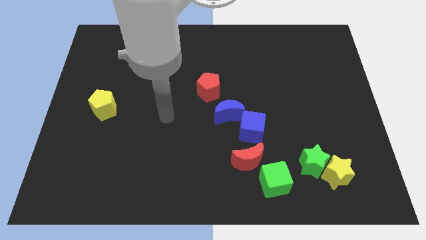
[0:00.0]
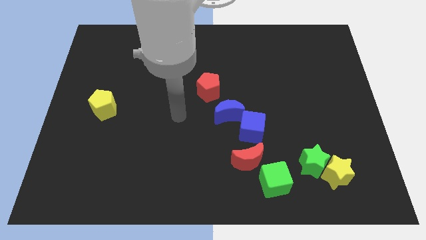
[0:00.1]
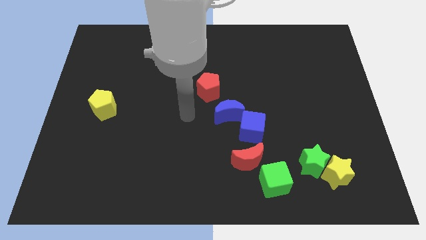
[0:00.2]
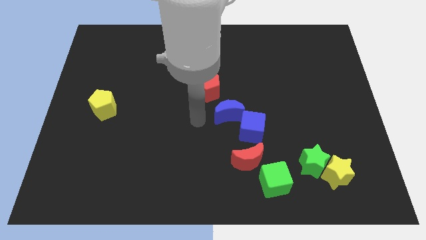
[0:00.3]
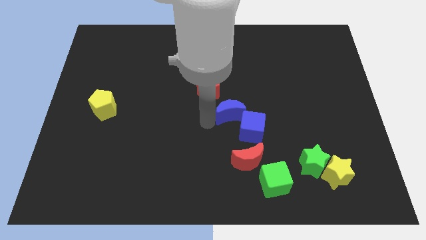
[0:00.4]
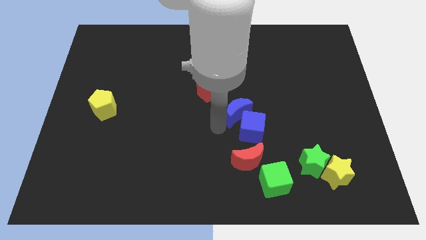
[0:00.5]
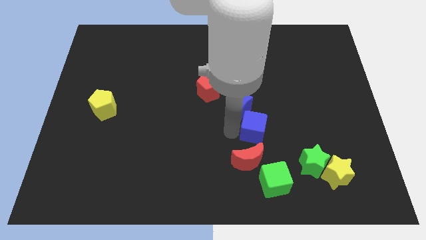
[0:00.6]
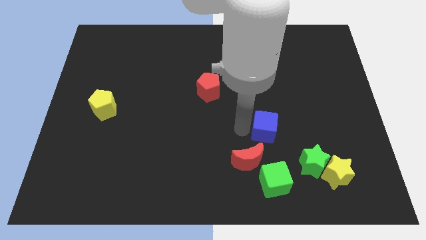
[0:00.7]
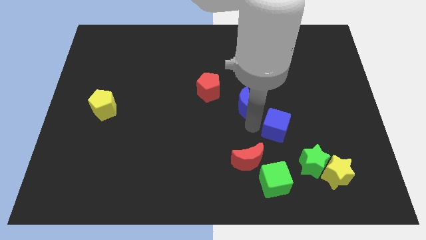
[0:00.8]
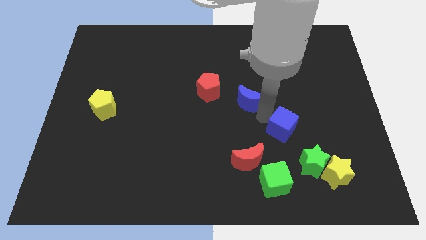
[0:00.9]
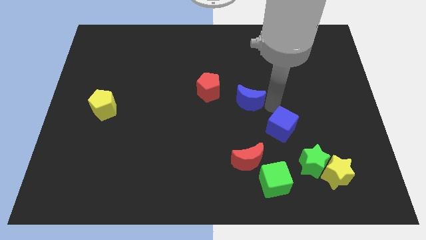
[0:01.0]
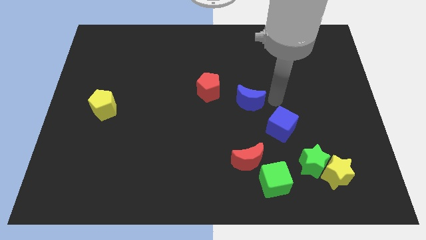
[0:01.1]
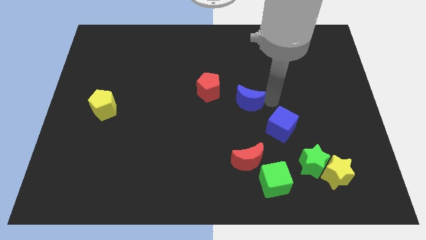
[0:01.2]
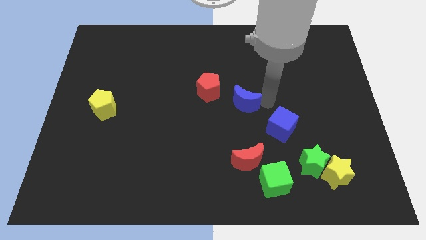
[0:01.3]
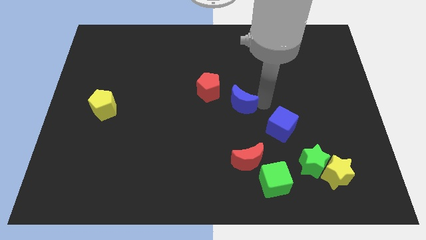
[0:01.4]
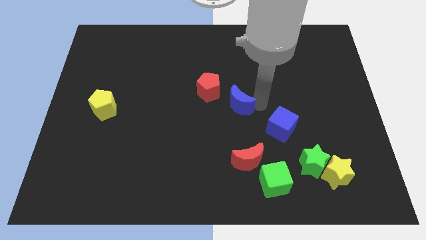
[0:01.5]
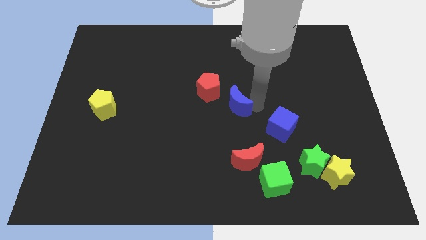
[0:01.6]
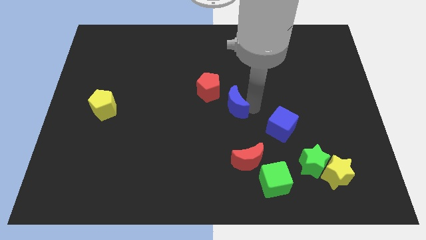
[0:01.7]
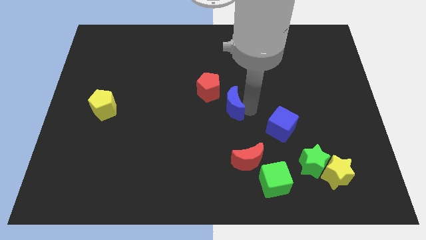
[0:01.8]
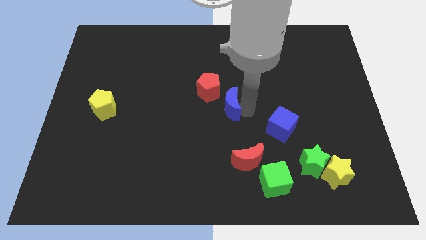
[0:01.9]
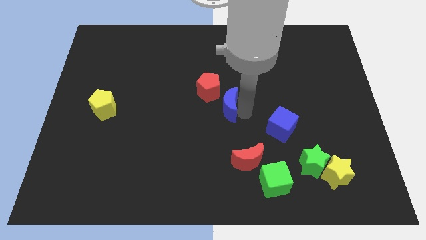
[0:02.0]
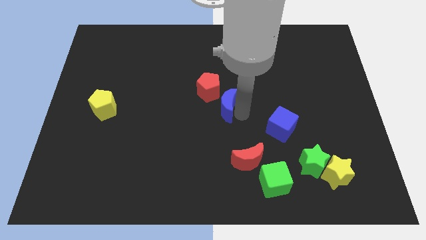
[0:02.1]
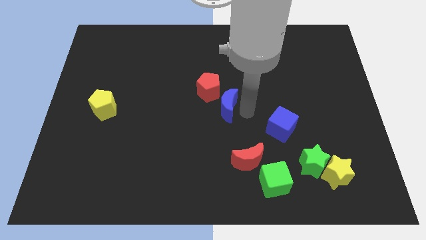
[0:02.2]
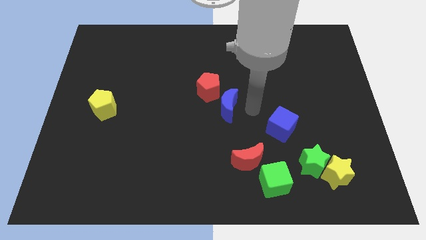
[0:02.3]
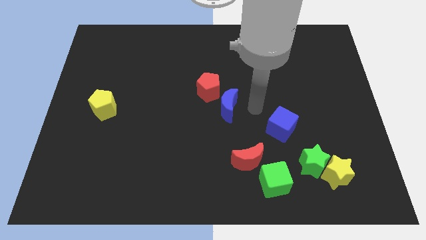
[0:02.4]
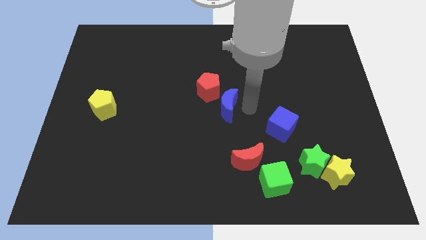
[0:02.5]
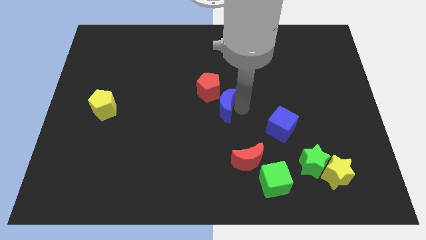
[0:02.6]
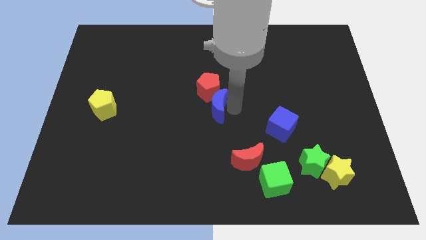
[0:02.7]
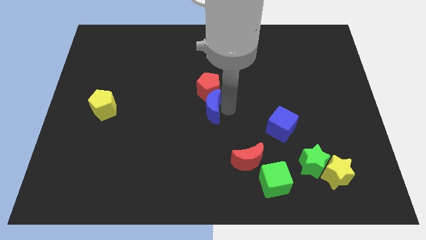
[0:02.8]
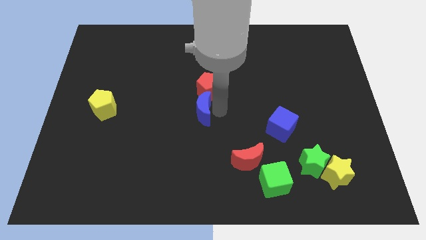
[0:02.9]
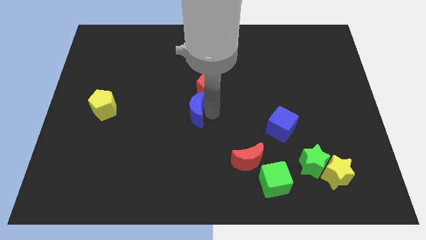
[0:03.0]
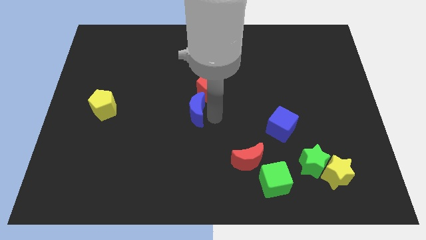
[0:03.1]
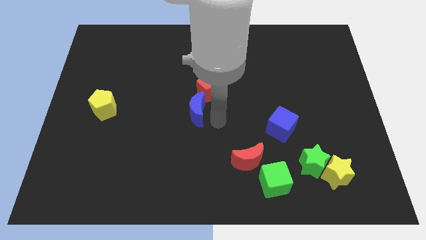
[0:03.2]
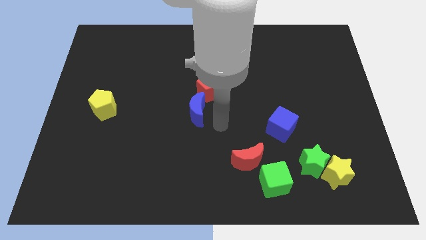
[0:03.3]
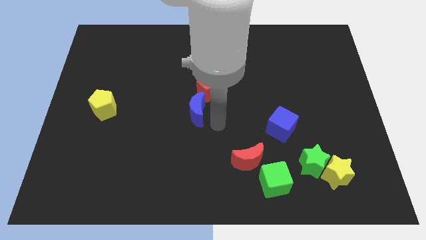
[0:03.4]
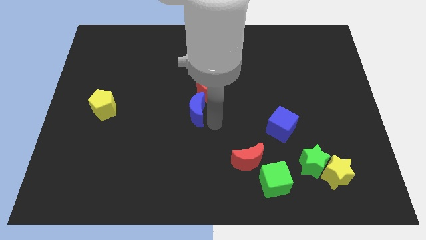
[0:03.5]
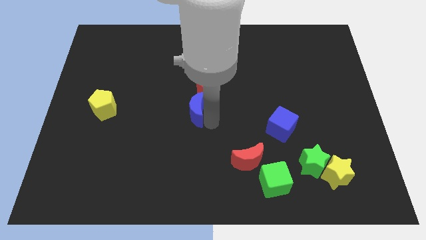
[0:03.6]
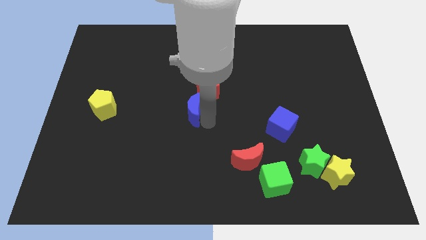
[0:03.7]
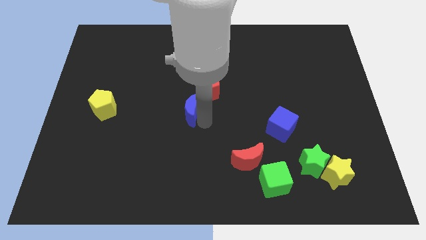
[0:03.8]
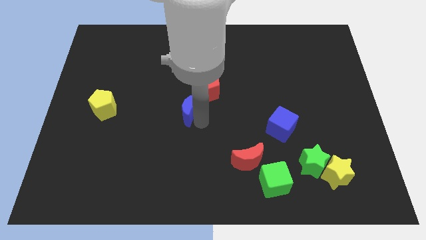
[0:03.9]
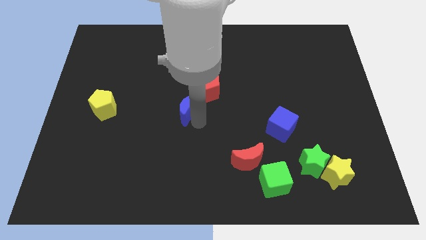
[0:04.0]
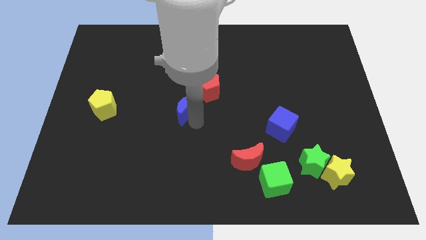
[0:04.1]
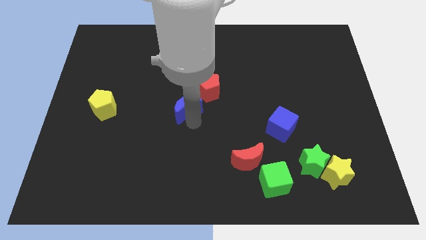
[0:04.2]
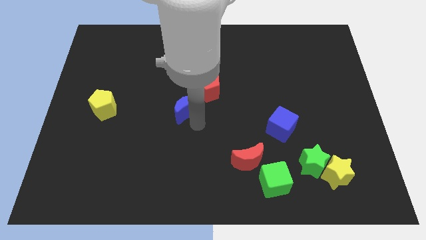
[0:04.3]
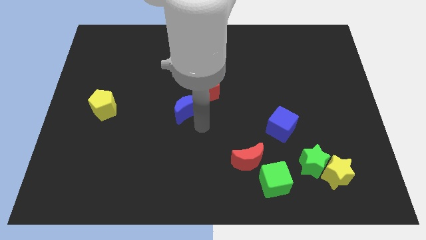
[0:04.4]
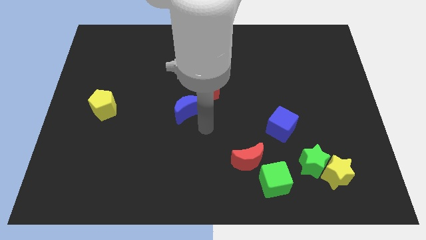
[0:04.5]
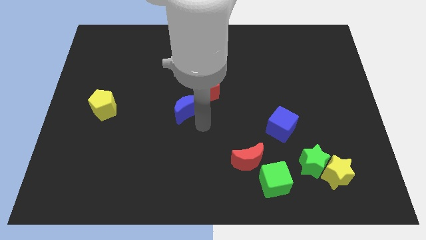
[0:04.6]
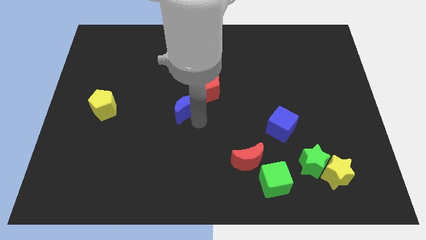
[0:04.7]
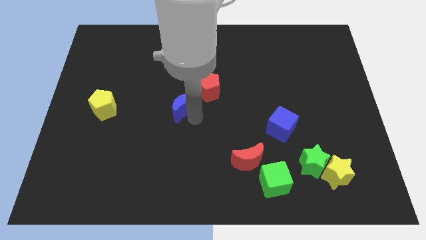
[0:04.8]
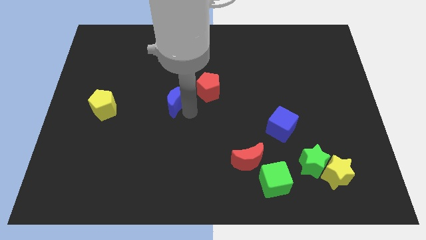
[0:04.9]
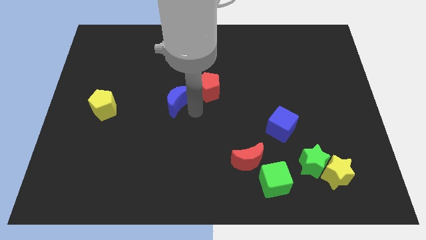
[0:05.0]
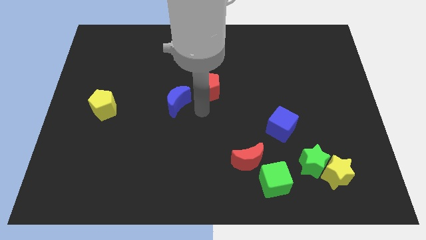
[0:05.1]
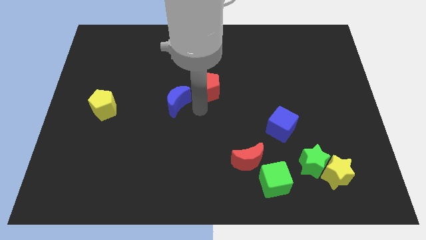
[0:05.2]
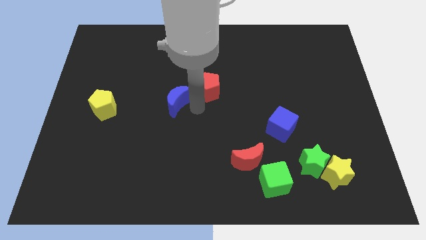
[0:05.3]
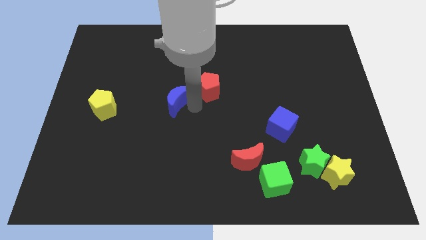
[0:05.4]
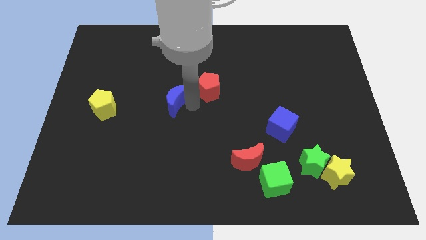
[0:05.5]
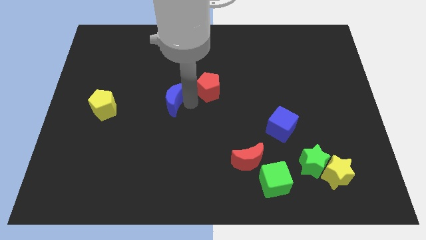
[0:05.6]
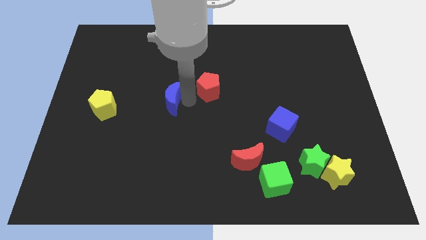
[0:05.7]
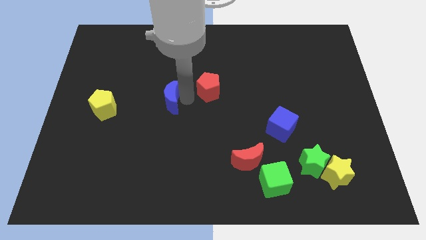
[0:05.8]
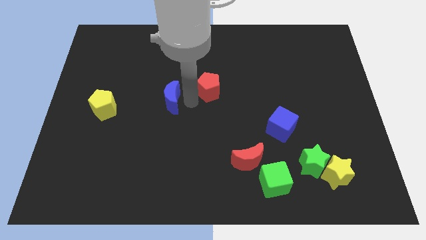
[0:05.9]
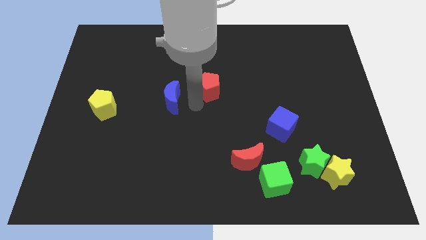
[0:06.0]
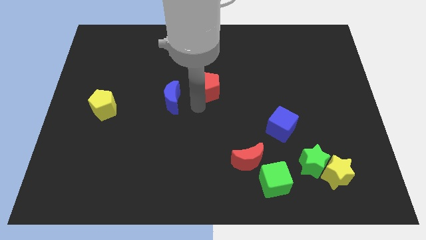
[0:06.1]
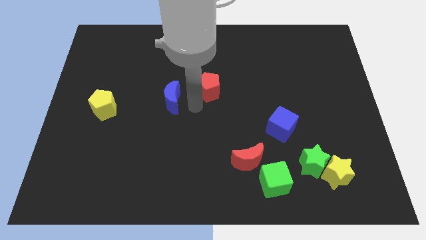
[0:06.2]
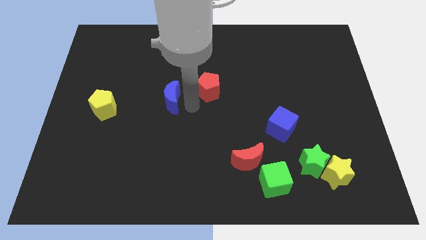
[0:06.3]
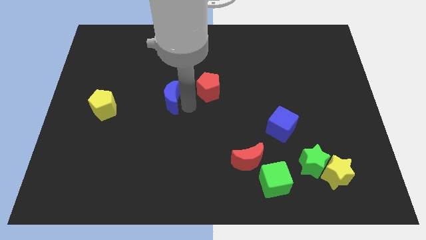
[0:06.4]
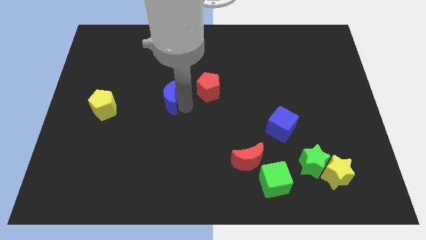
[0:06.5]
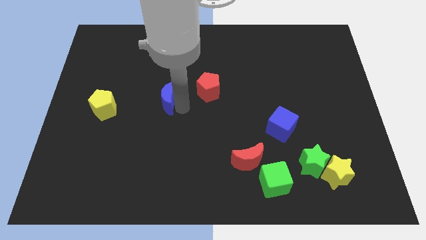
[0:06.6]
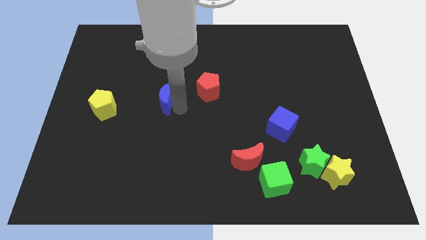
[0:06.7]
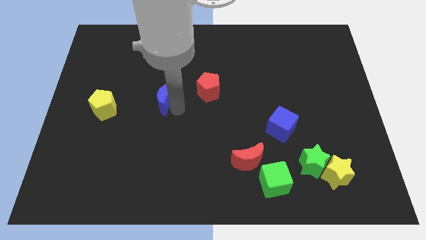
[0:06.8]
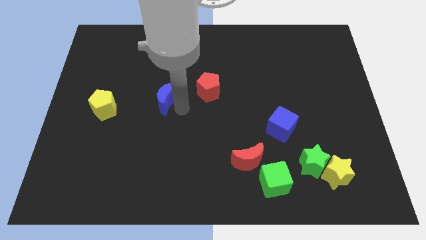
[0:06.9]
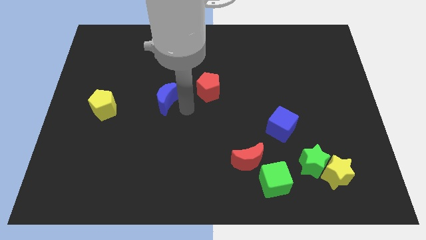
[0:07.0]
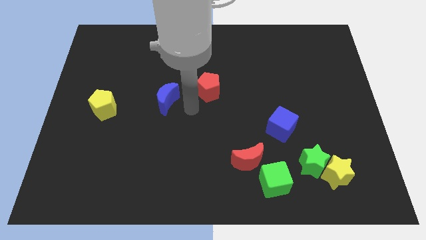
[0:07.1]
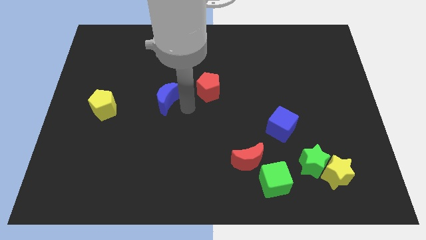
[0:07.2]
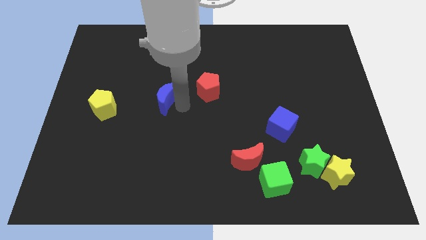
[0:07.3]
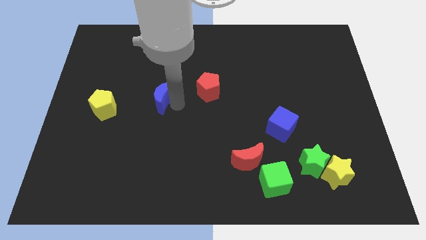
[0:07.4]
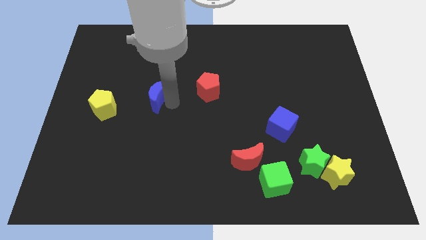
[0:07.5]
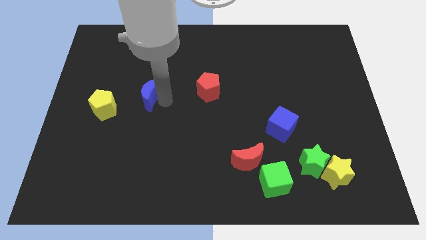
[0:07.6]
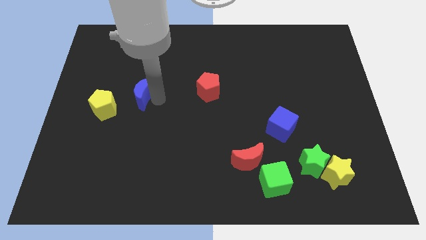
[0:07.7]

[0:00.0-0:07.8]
move the blue moon diagonally up and to the right of the yellow pentagon
